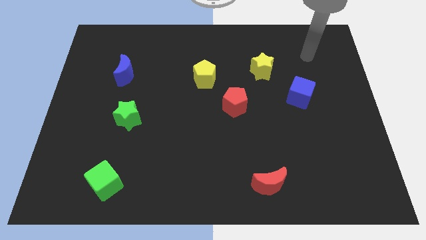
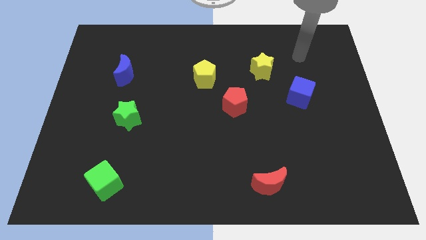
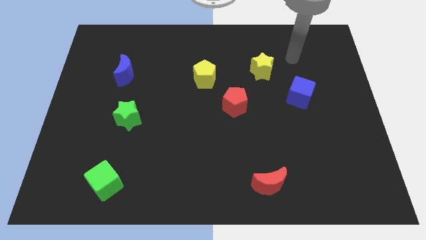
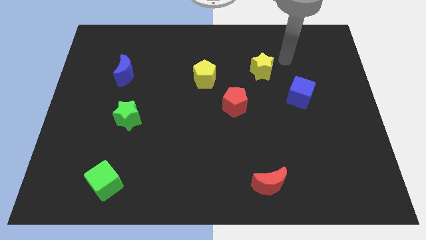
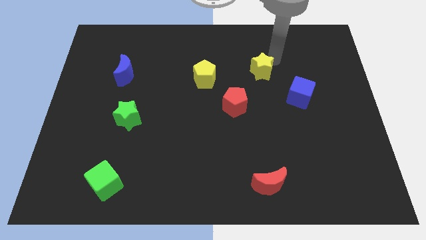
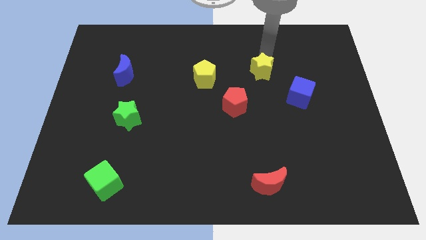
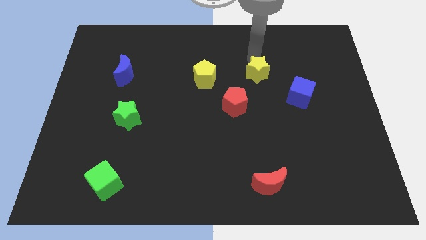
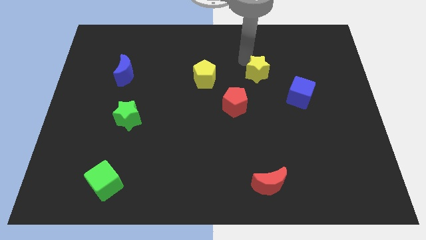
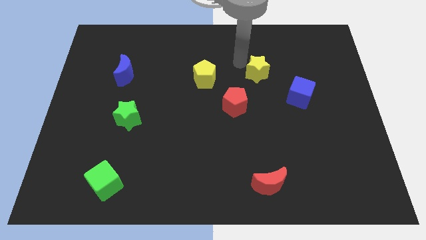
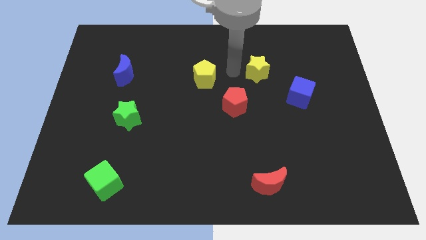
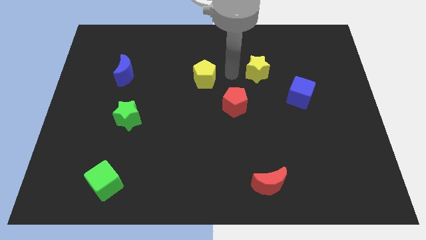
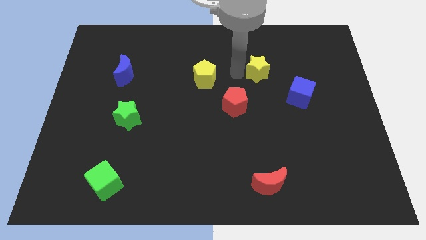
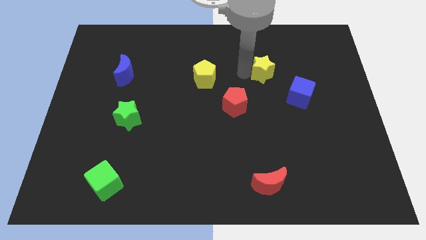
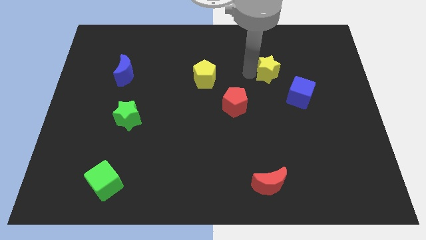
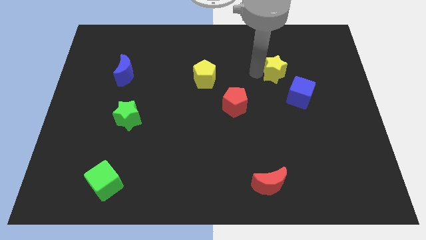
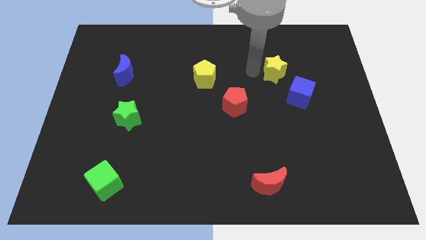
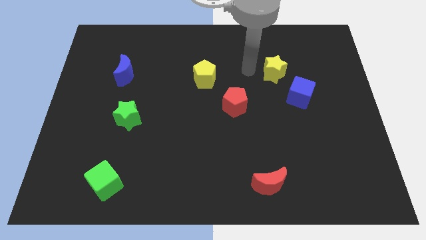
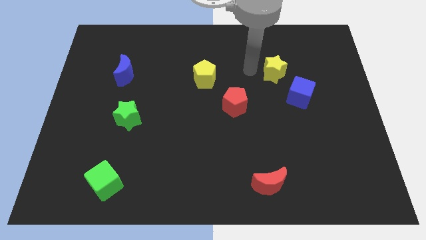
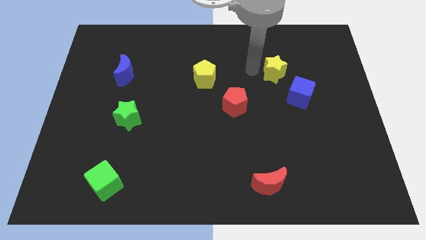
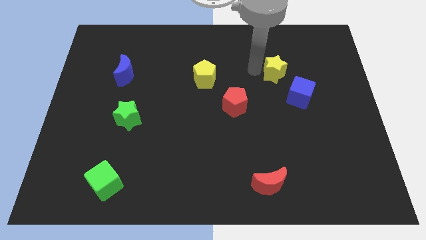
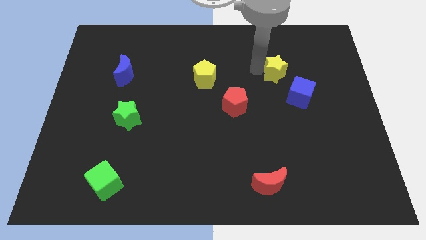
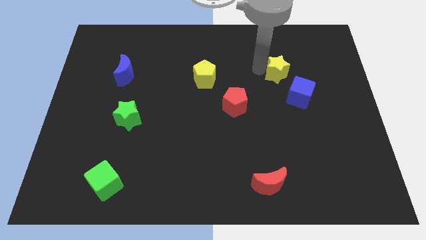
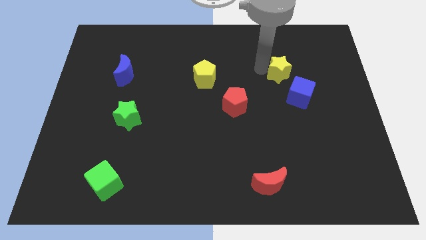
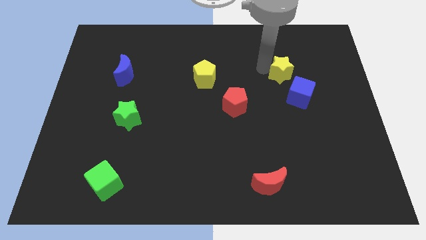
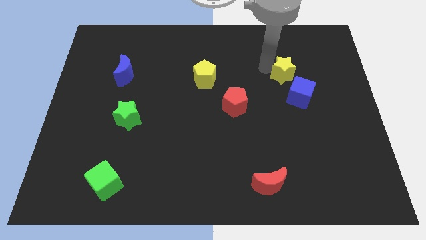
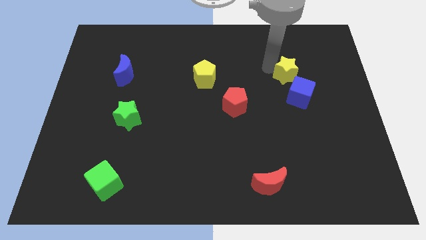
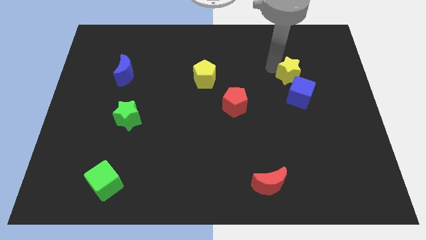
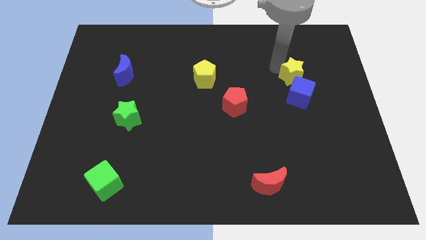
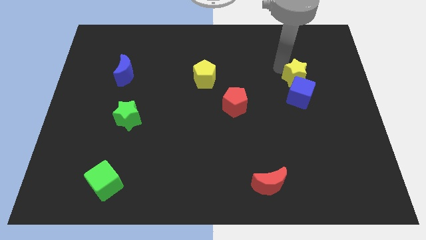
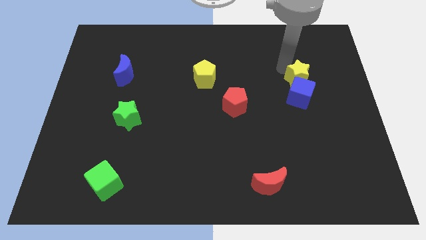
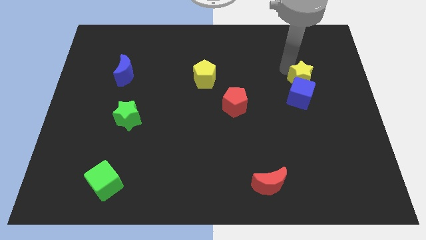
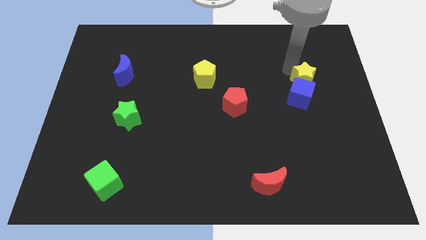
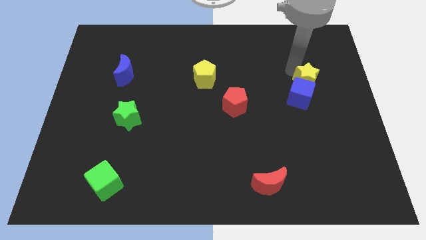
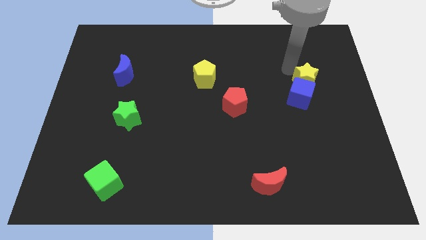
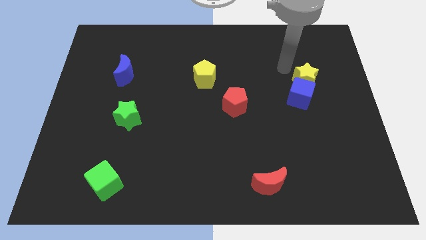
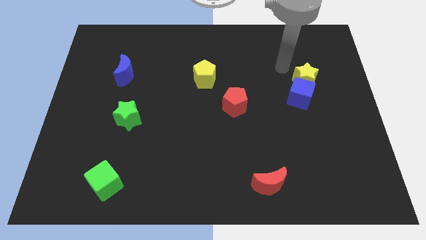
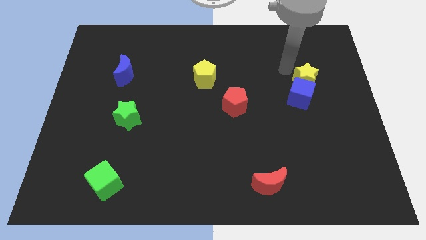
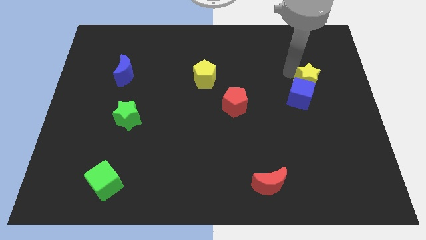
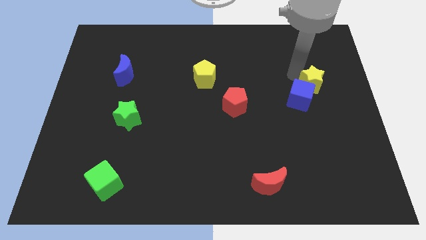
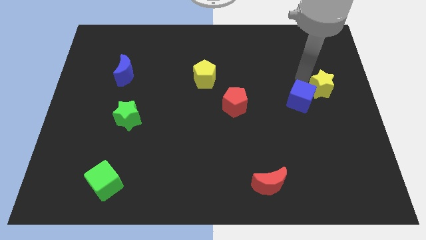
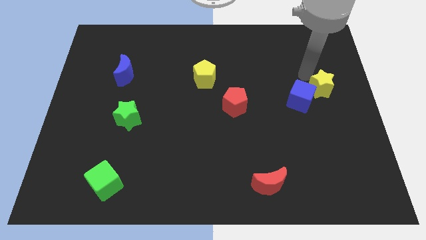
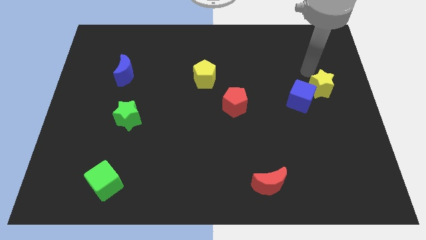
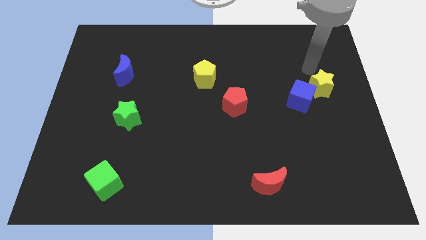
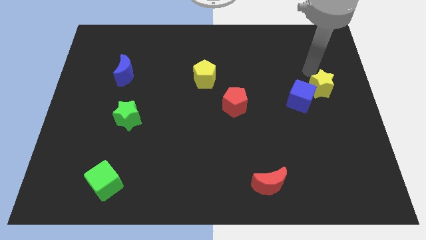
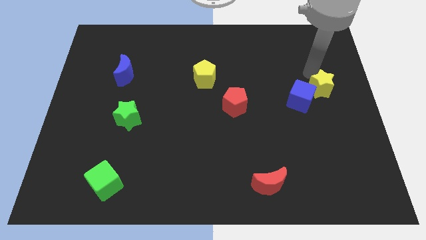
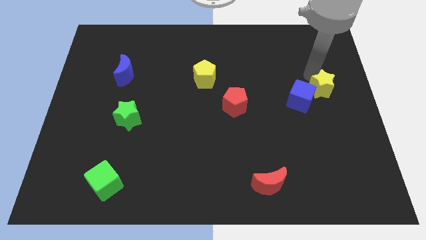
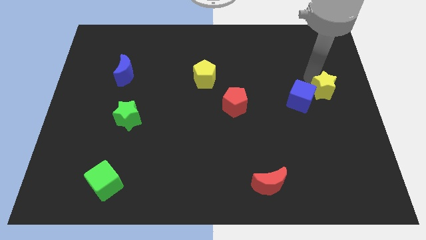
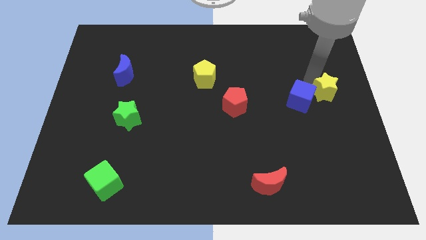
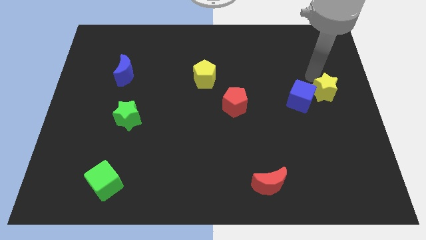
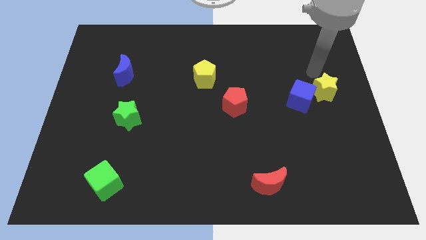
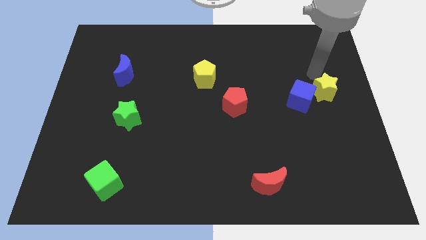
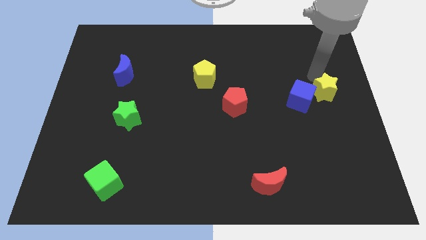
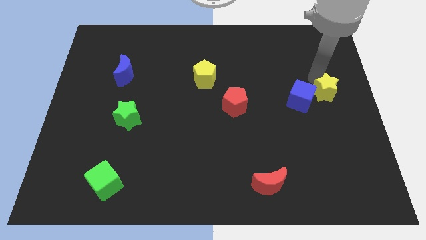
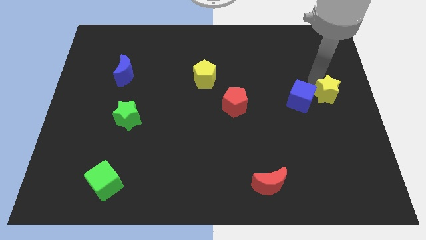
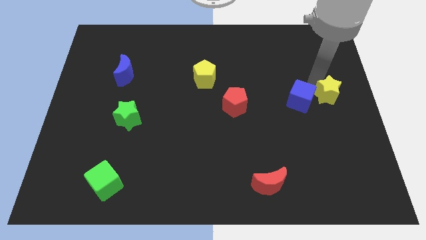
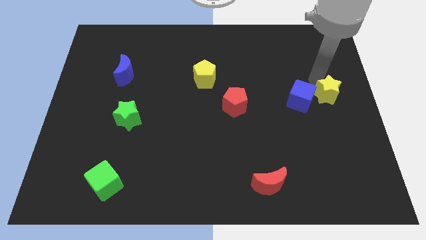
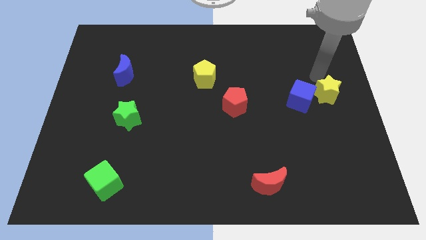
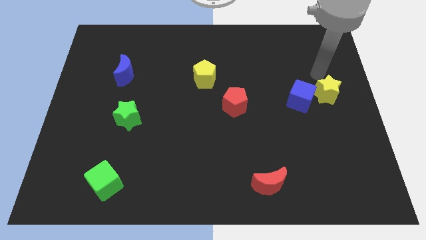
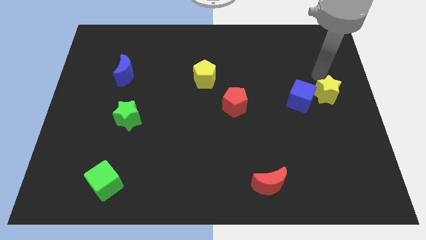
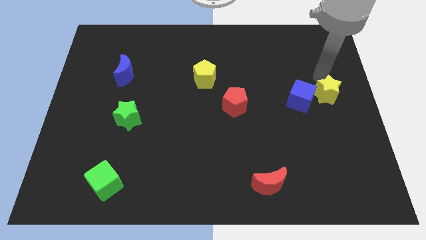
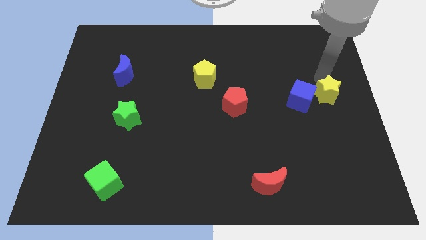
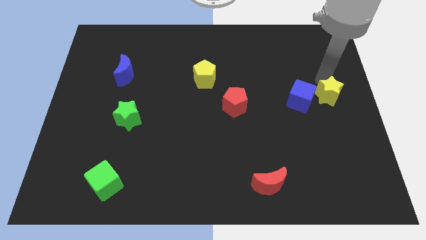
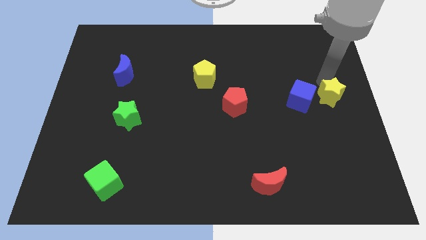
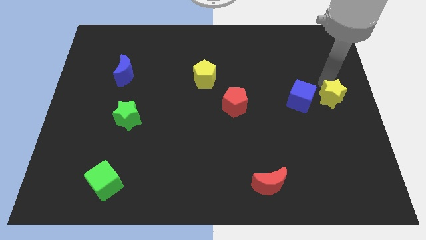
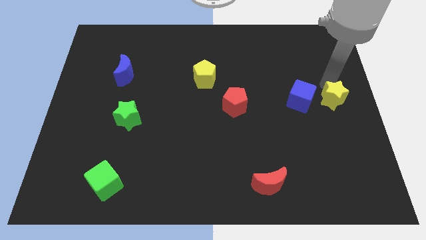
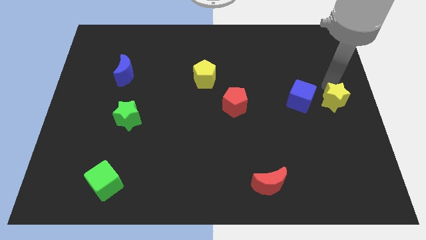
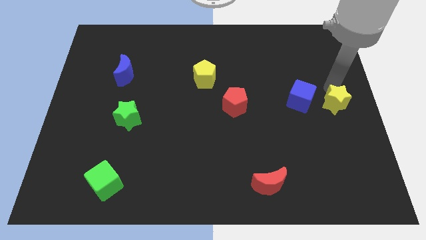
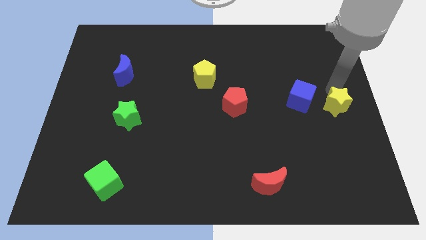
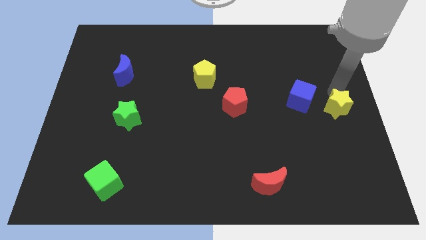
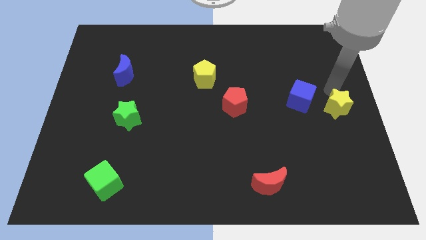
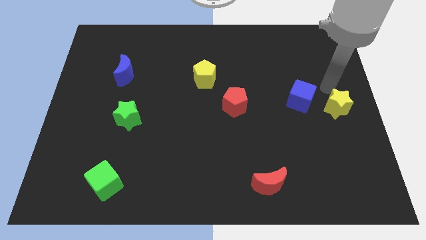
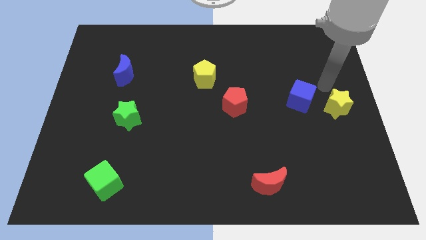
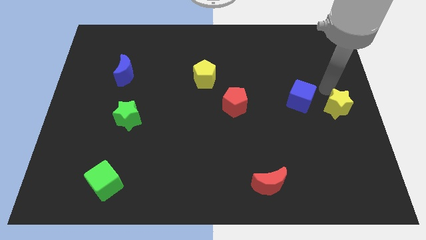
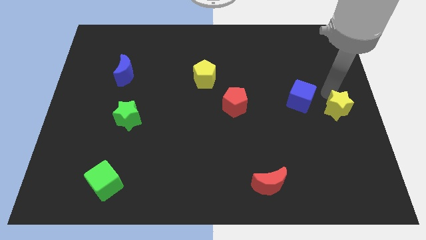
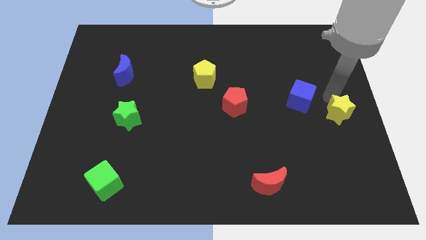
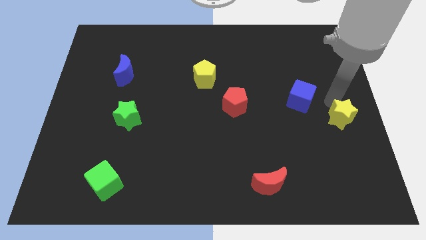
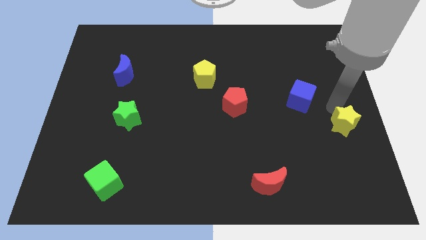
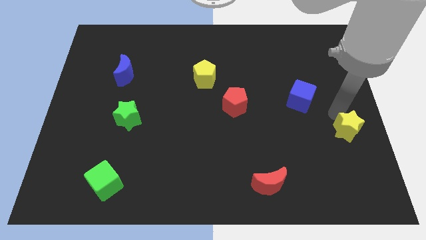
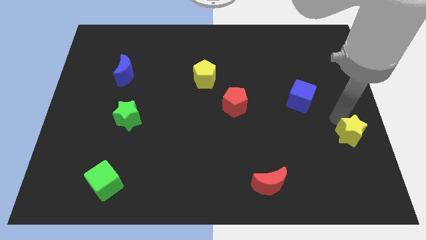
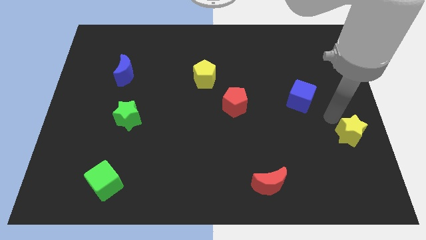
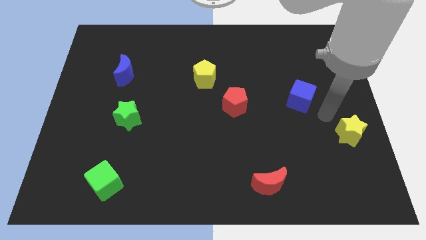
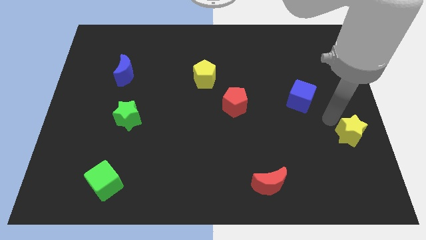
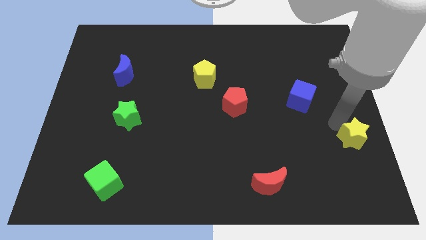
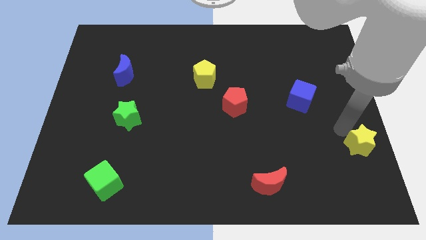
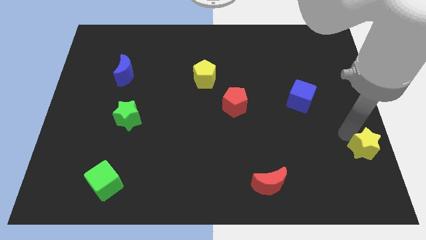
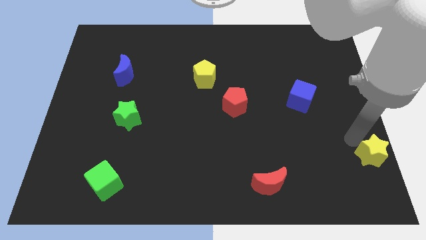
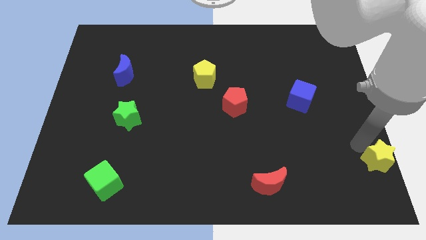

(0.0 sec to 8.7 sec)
move the yellow star to the bottom right
